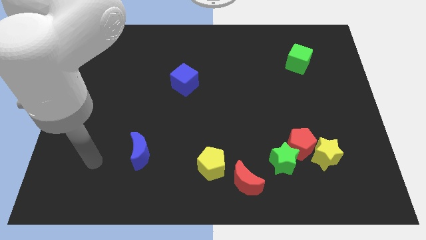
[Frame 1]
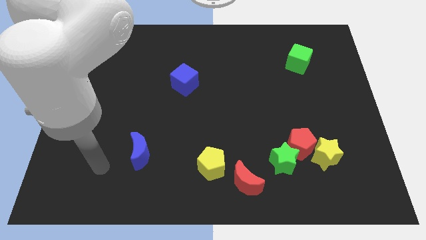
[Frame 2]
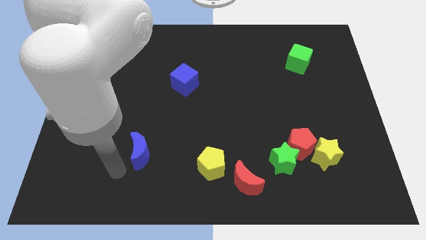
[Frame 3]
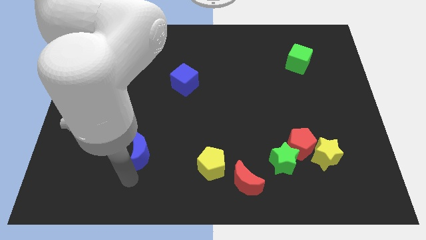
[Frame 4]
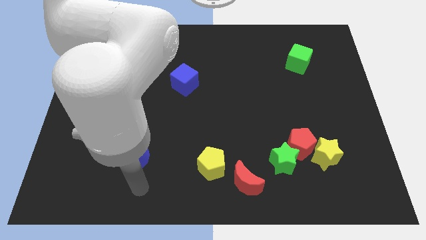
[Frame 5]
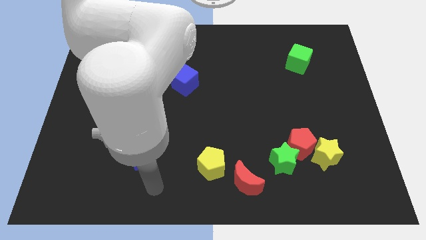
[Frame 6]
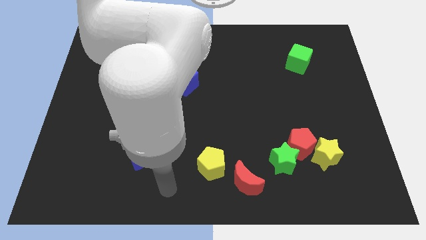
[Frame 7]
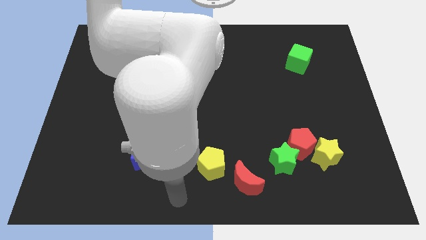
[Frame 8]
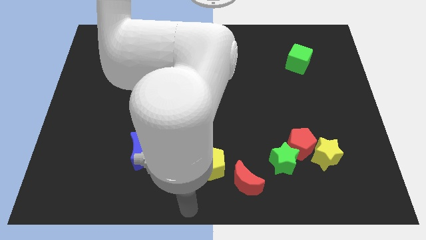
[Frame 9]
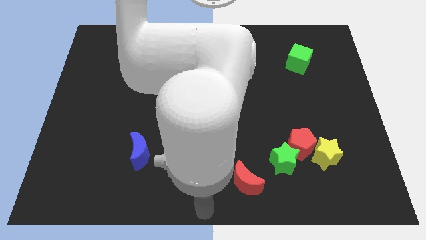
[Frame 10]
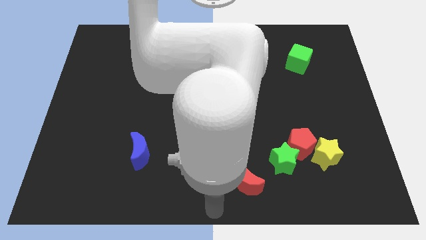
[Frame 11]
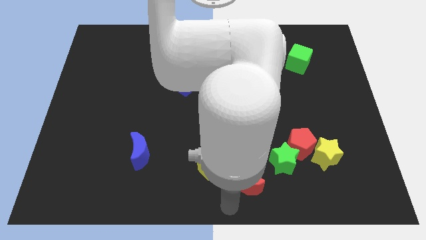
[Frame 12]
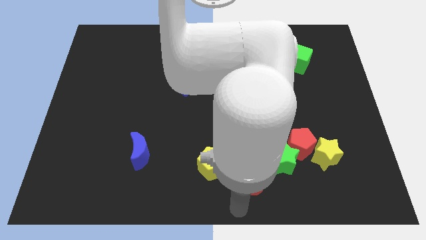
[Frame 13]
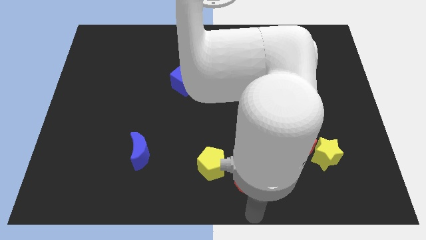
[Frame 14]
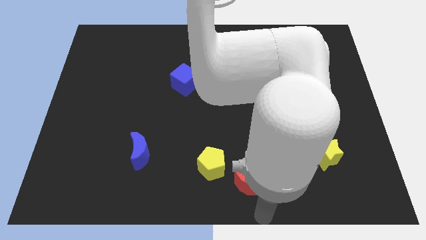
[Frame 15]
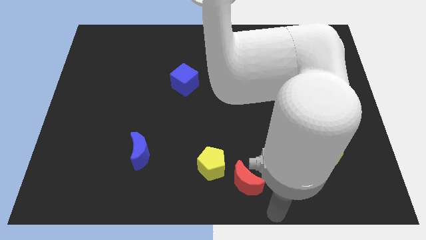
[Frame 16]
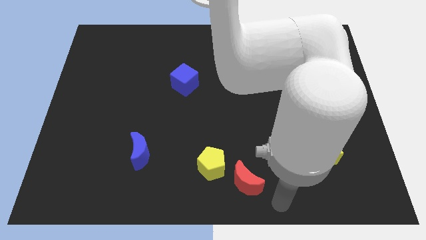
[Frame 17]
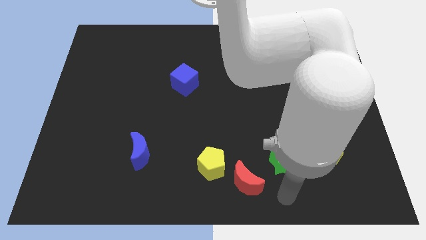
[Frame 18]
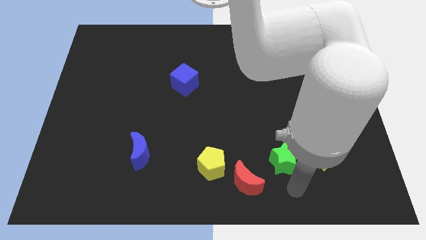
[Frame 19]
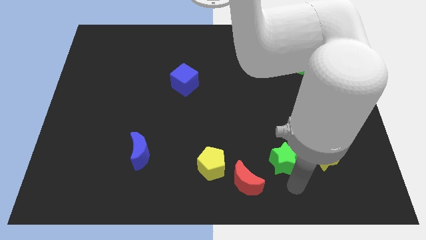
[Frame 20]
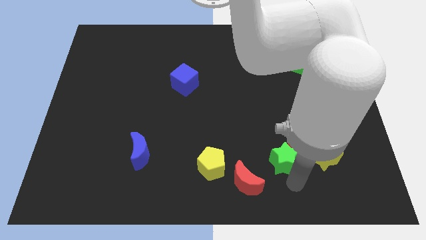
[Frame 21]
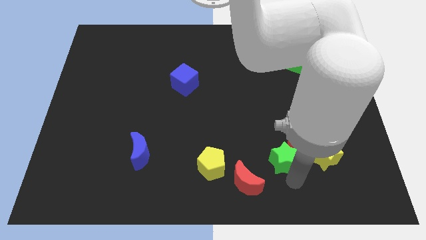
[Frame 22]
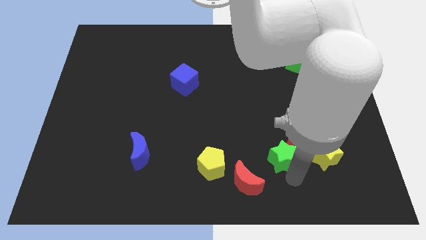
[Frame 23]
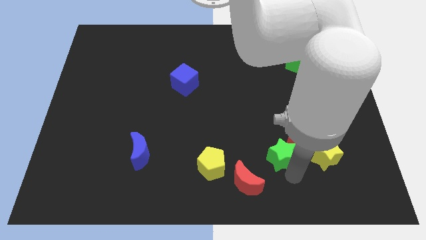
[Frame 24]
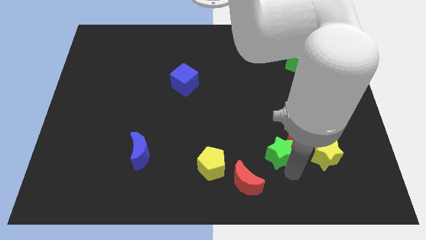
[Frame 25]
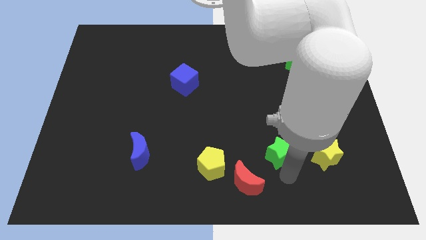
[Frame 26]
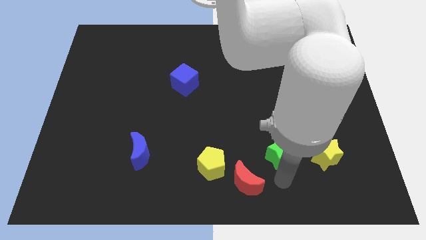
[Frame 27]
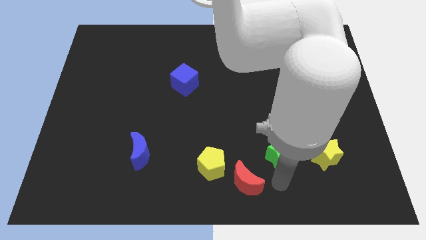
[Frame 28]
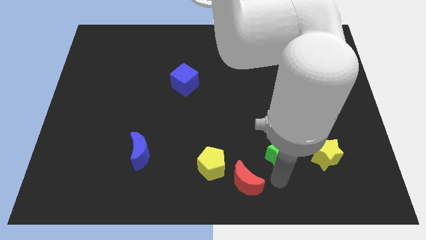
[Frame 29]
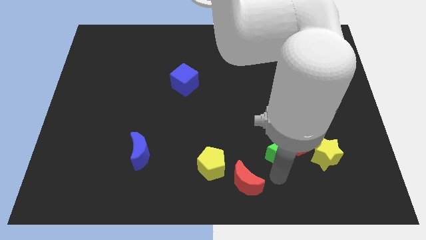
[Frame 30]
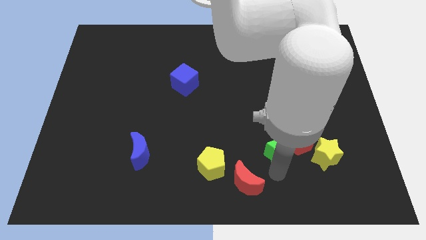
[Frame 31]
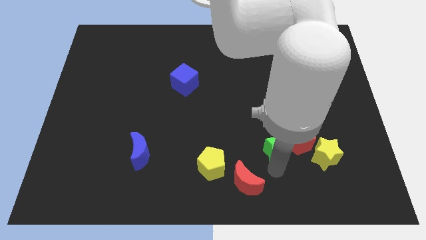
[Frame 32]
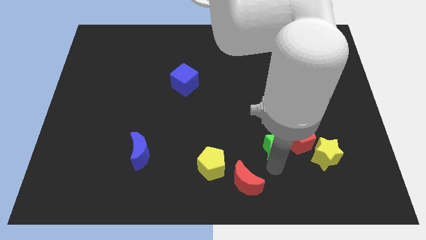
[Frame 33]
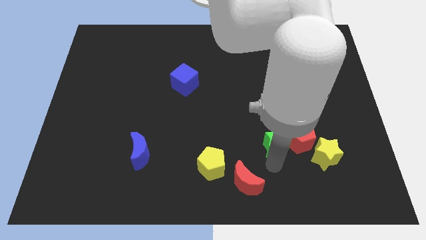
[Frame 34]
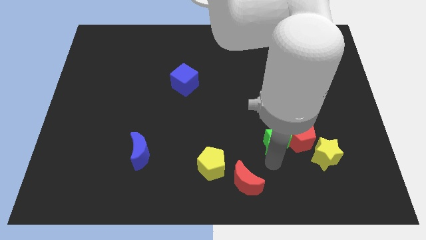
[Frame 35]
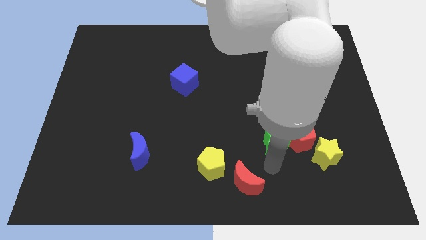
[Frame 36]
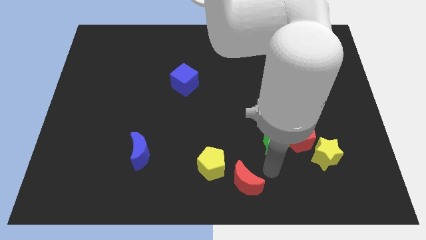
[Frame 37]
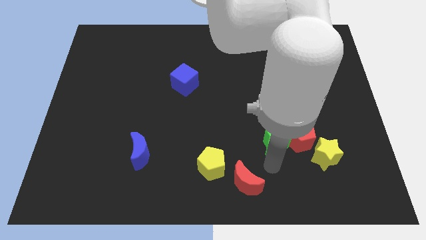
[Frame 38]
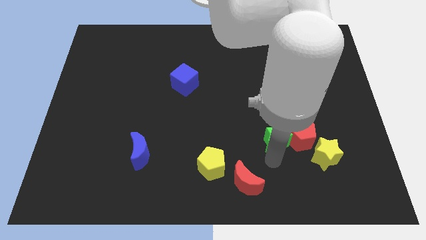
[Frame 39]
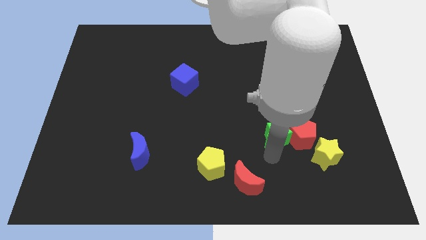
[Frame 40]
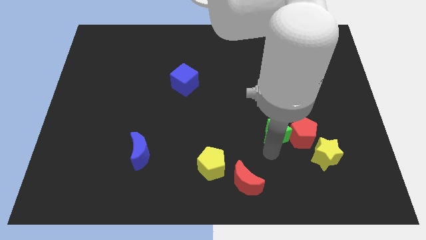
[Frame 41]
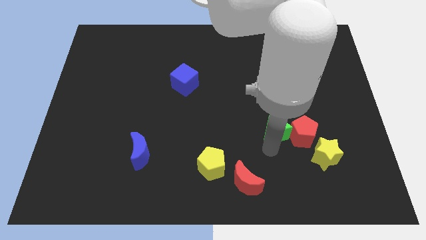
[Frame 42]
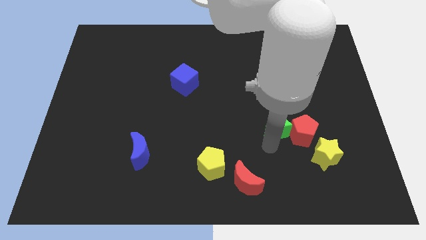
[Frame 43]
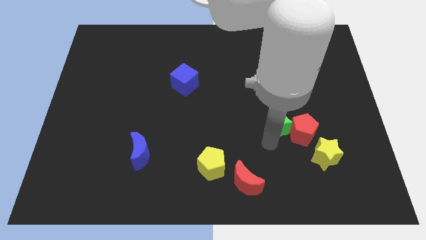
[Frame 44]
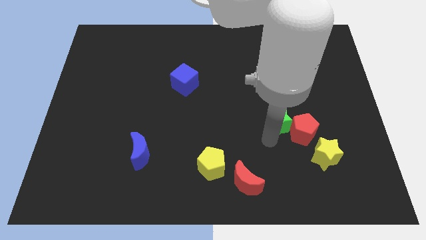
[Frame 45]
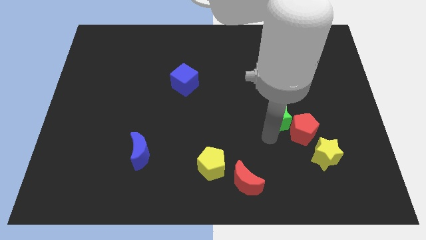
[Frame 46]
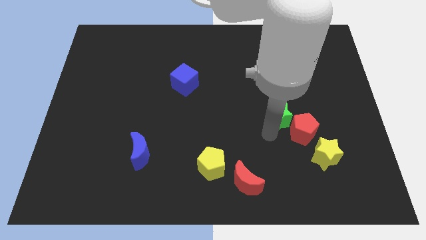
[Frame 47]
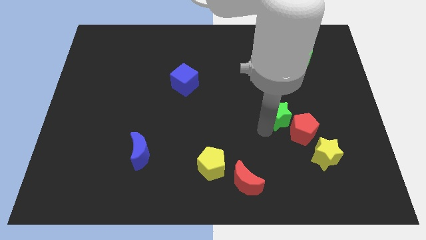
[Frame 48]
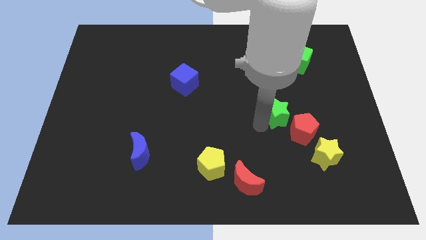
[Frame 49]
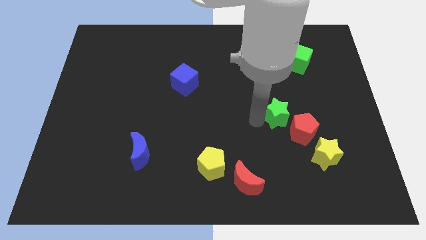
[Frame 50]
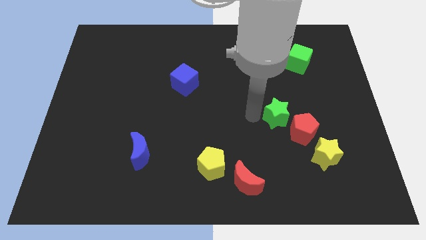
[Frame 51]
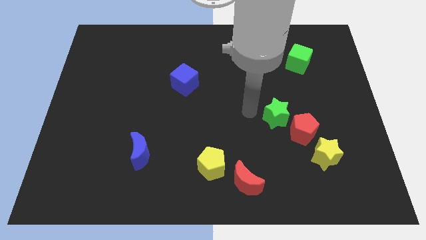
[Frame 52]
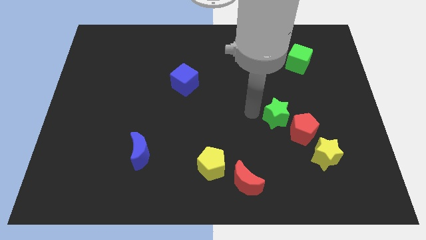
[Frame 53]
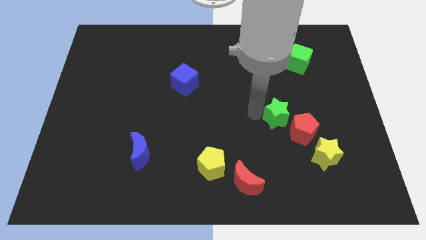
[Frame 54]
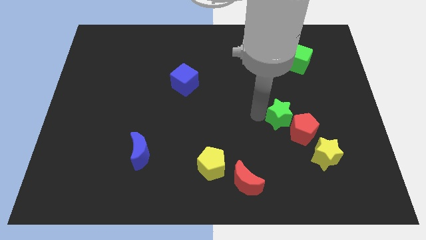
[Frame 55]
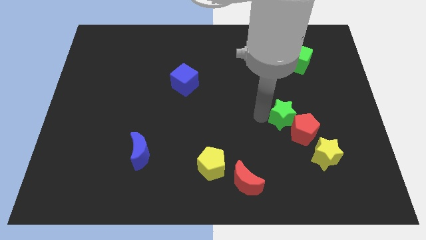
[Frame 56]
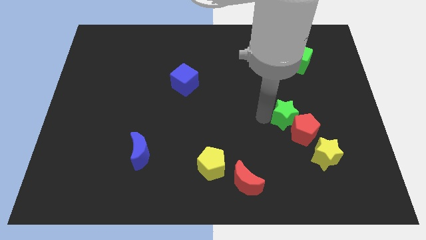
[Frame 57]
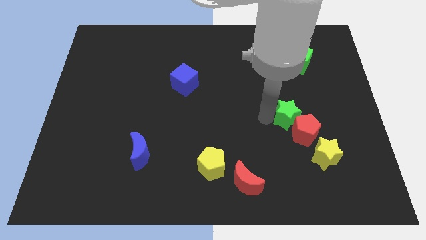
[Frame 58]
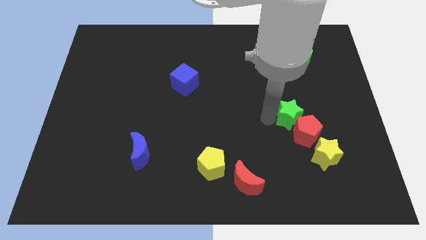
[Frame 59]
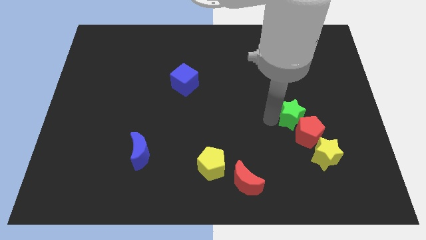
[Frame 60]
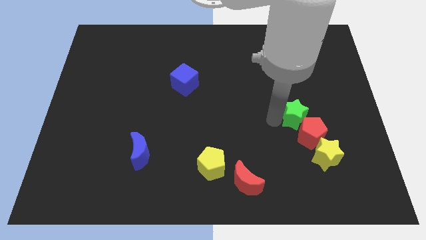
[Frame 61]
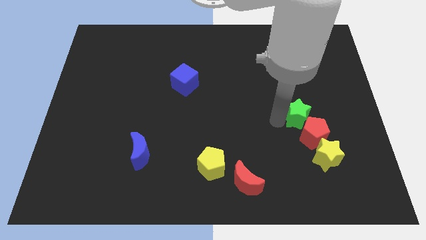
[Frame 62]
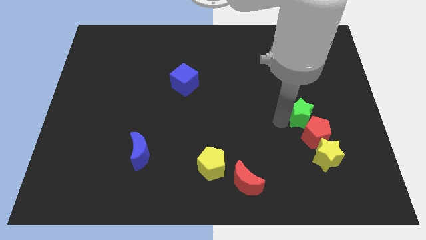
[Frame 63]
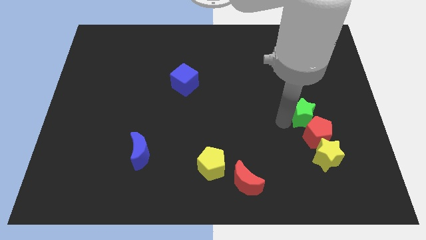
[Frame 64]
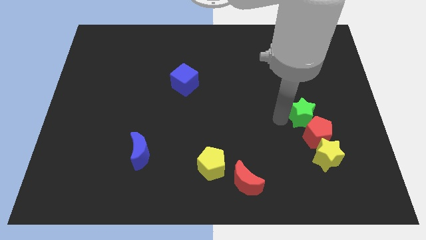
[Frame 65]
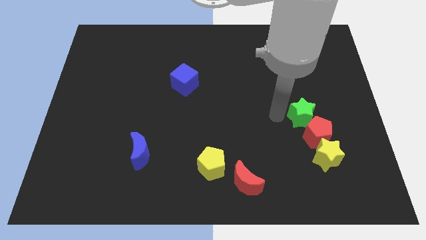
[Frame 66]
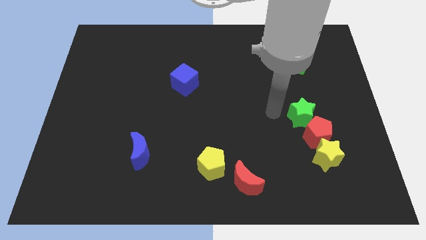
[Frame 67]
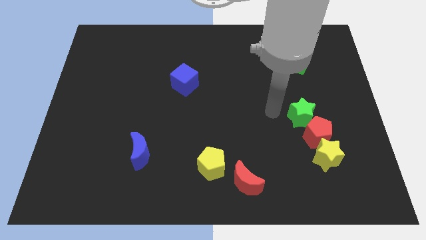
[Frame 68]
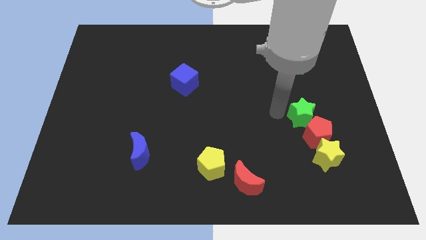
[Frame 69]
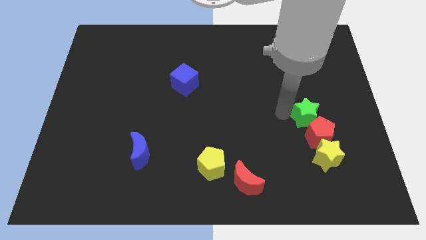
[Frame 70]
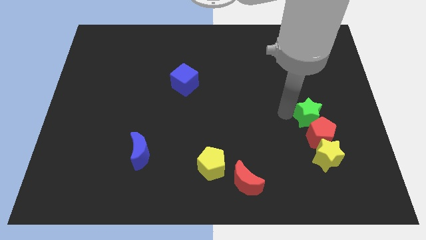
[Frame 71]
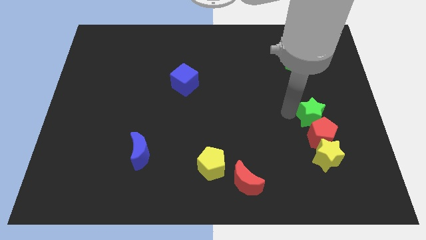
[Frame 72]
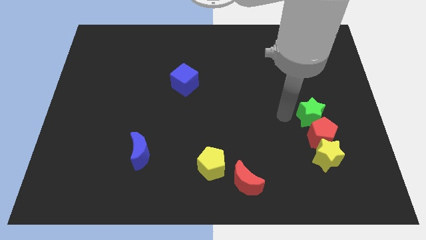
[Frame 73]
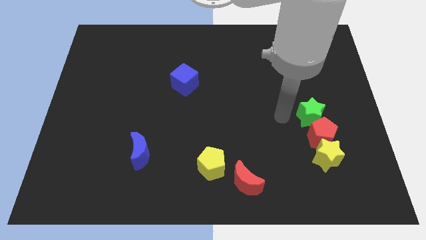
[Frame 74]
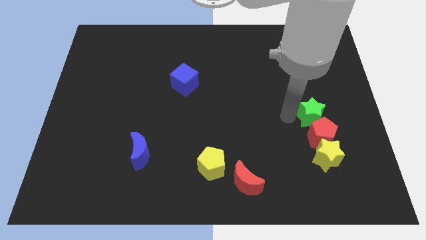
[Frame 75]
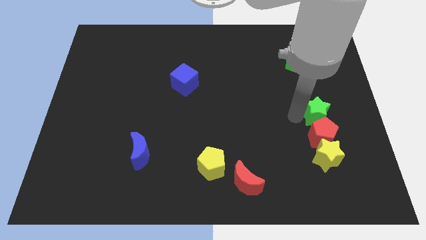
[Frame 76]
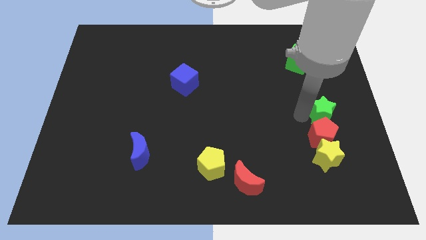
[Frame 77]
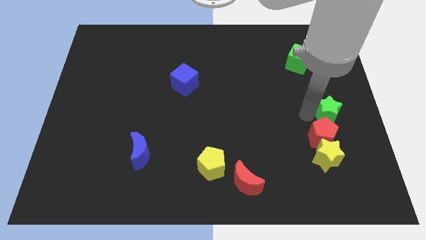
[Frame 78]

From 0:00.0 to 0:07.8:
move the green star to the right side
